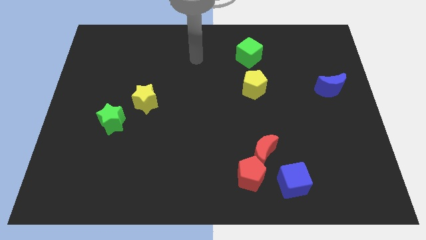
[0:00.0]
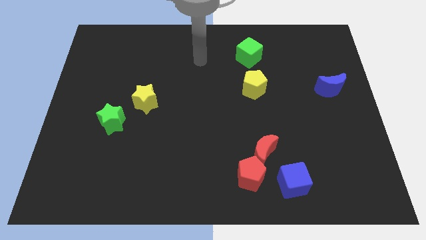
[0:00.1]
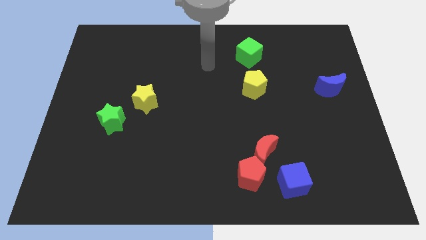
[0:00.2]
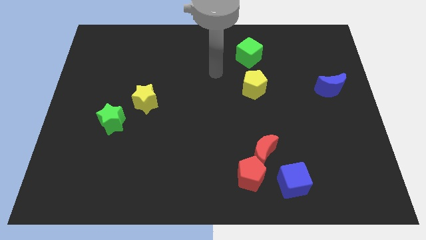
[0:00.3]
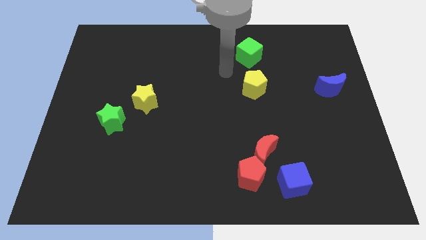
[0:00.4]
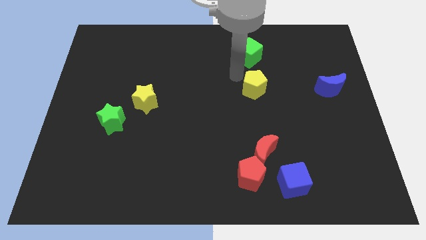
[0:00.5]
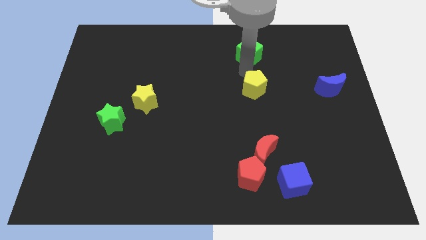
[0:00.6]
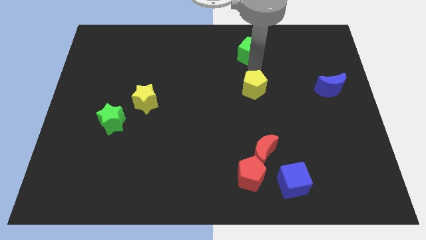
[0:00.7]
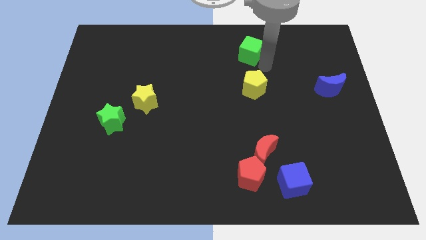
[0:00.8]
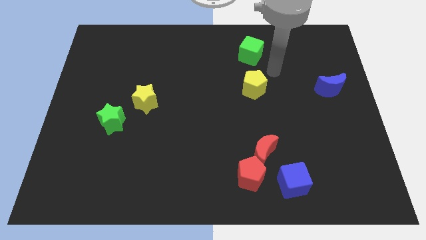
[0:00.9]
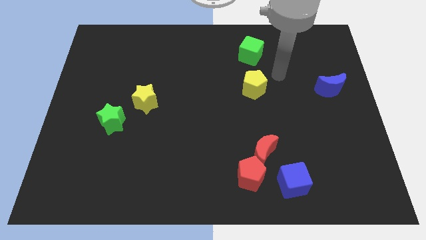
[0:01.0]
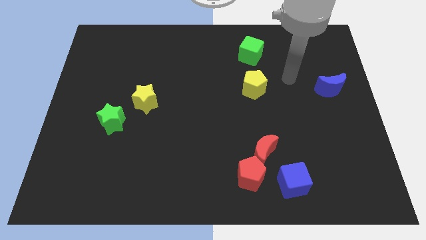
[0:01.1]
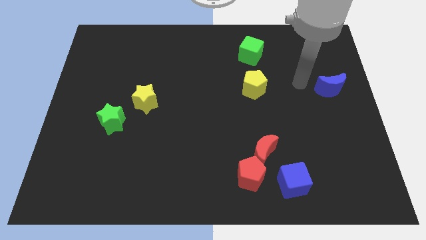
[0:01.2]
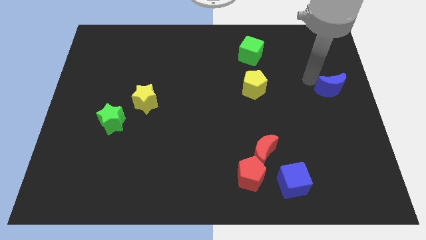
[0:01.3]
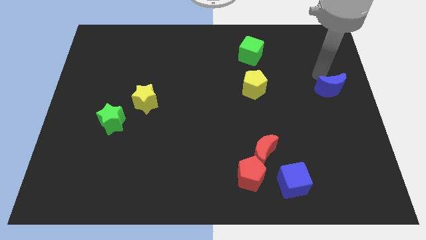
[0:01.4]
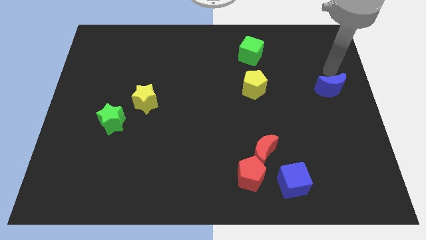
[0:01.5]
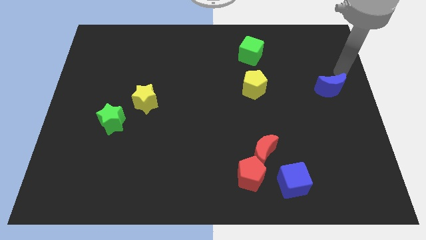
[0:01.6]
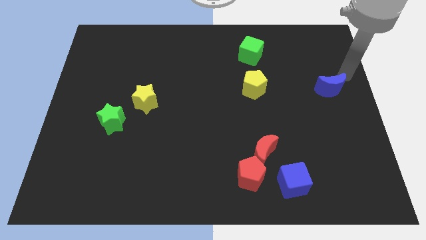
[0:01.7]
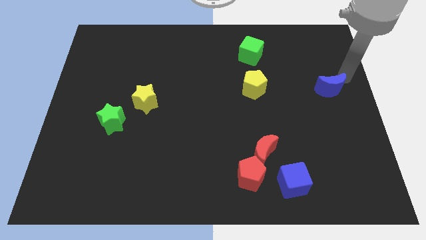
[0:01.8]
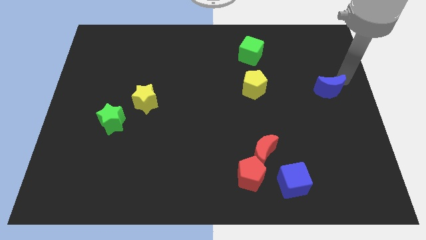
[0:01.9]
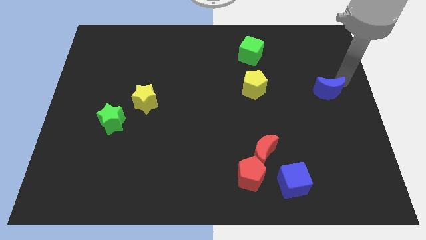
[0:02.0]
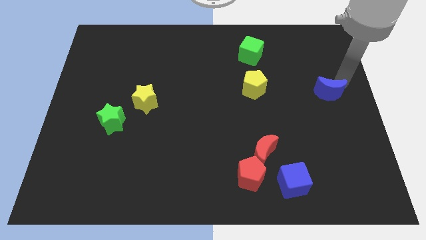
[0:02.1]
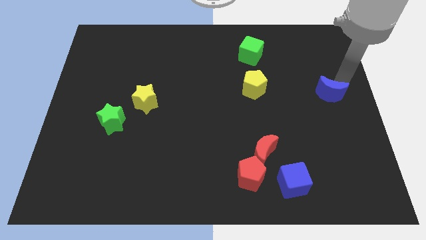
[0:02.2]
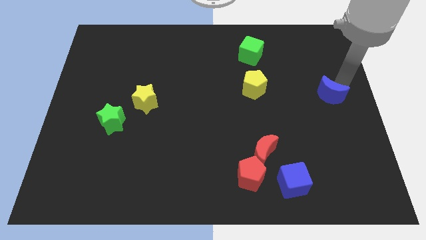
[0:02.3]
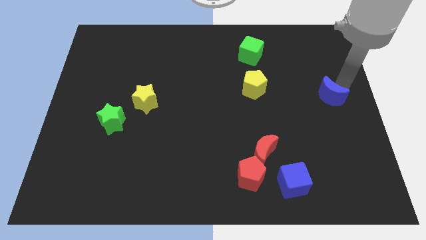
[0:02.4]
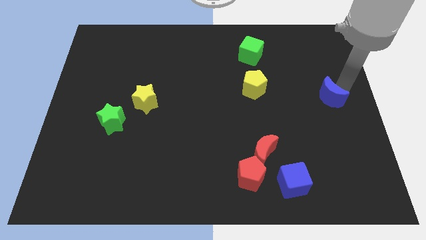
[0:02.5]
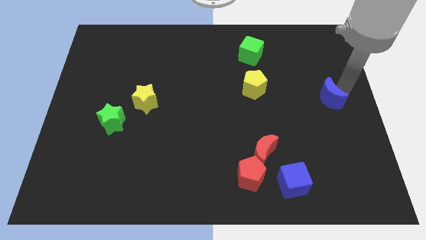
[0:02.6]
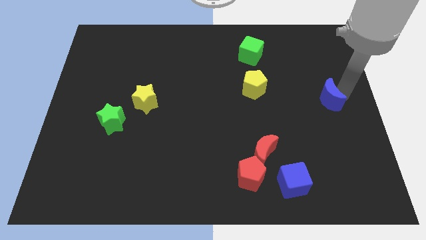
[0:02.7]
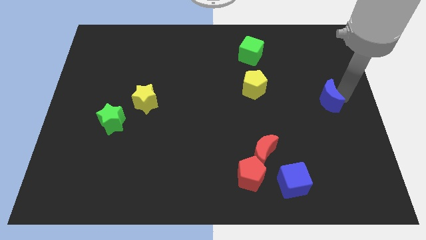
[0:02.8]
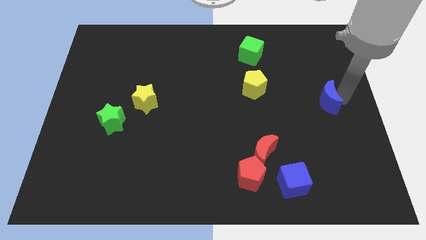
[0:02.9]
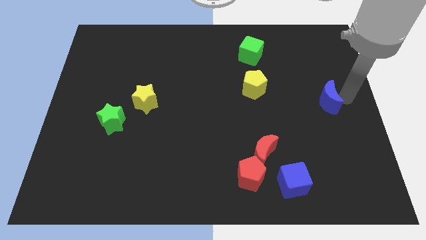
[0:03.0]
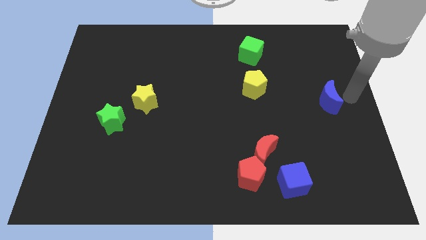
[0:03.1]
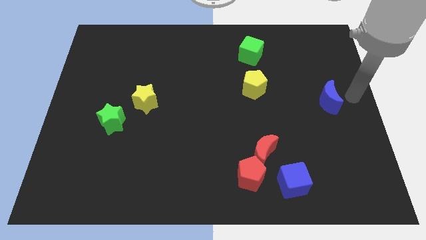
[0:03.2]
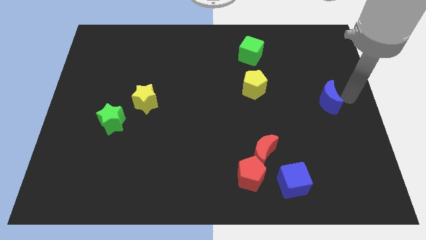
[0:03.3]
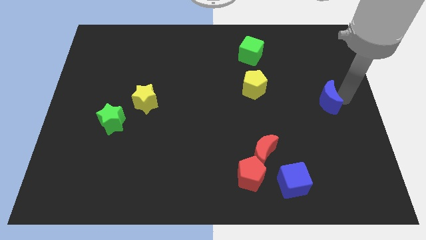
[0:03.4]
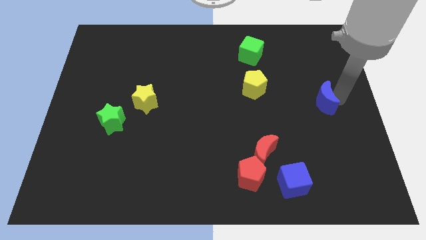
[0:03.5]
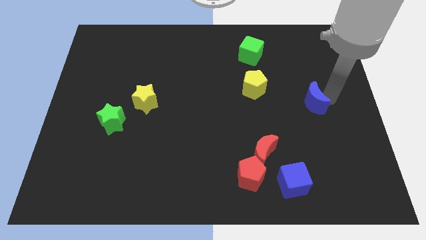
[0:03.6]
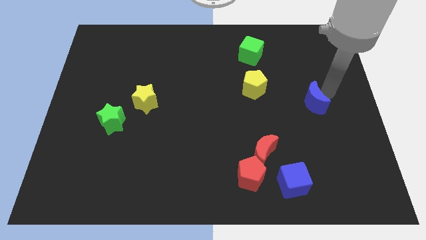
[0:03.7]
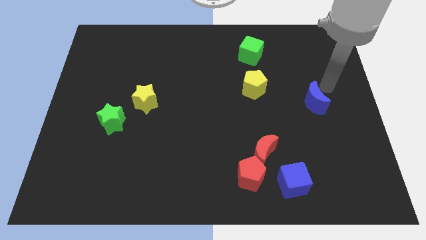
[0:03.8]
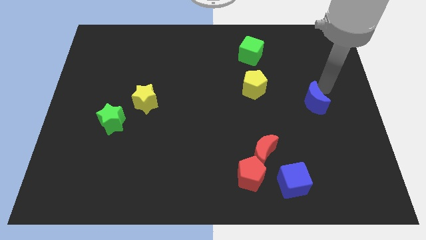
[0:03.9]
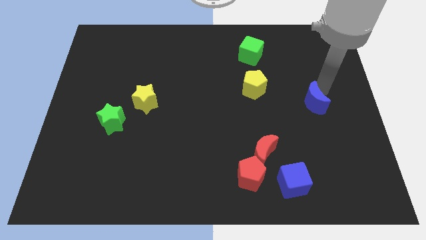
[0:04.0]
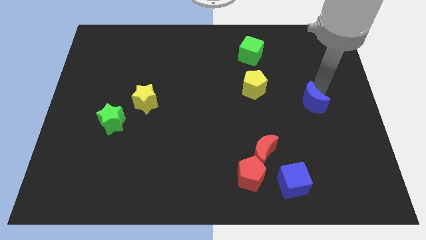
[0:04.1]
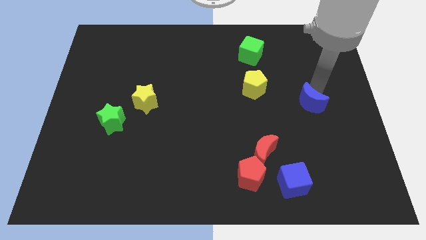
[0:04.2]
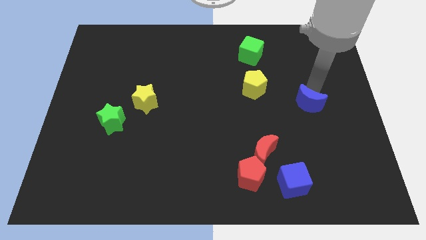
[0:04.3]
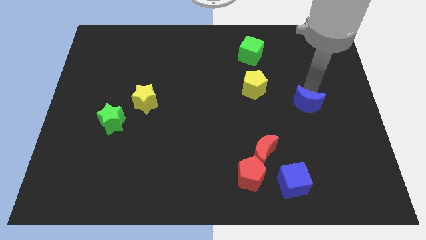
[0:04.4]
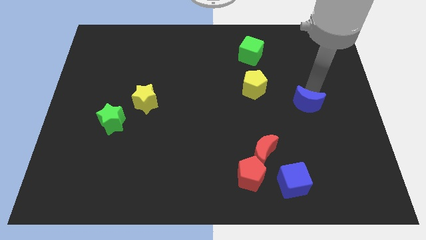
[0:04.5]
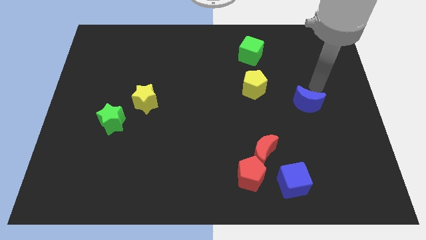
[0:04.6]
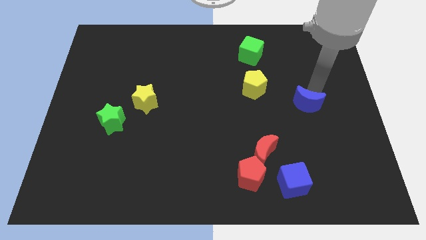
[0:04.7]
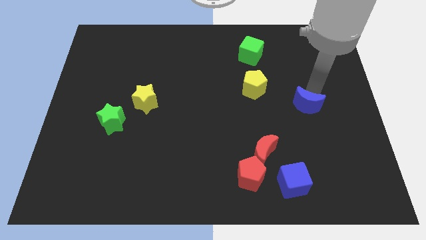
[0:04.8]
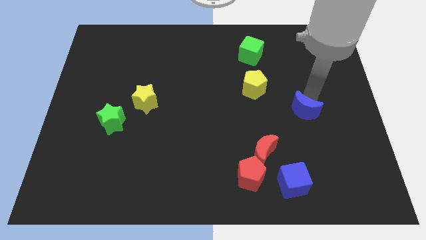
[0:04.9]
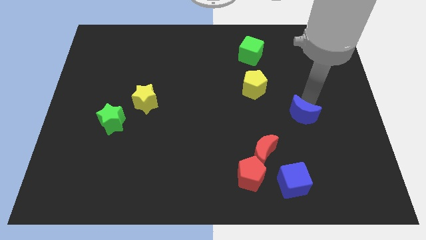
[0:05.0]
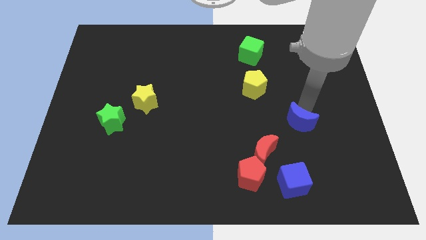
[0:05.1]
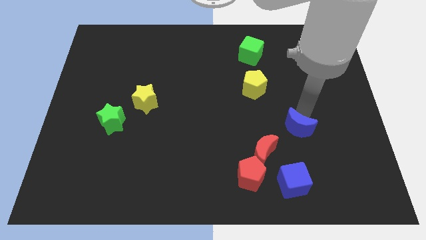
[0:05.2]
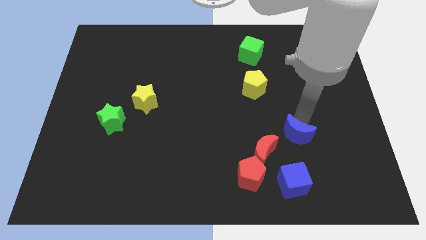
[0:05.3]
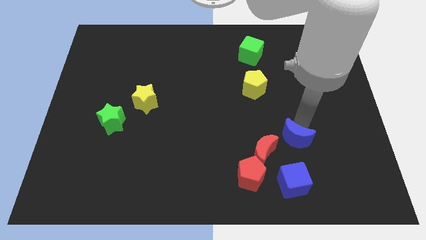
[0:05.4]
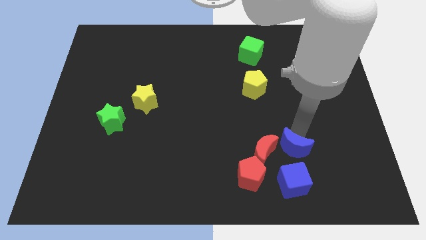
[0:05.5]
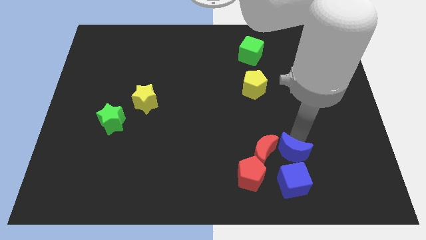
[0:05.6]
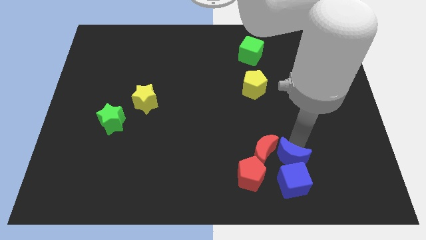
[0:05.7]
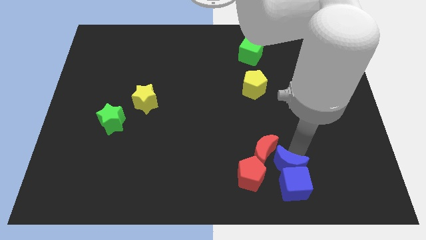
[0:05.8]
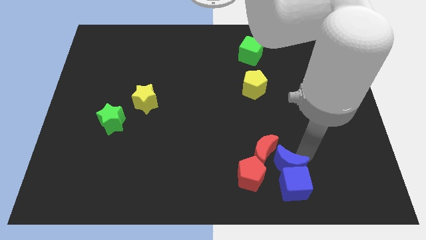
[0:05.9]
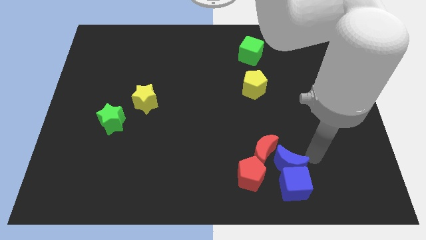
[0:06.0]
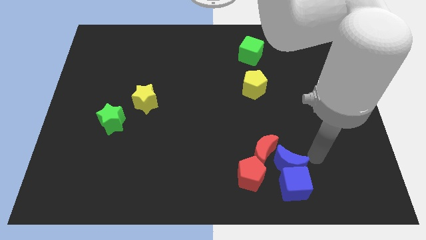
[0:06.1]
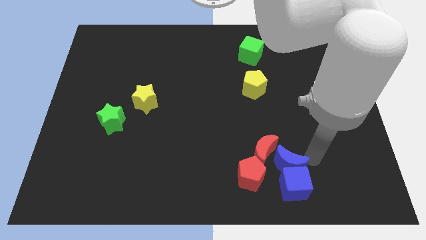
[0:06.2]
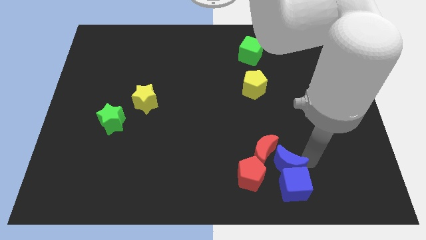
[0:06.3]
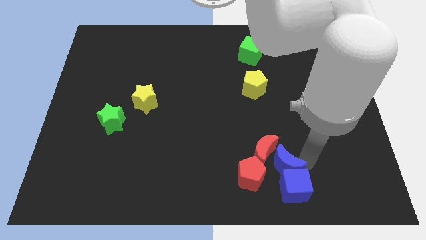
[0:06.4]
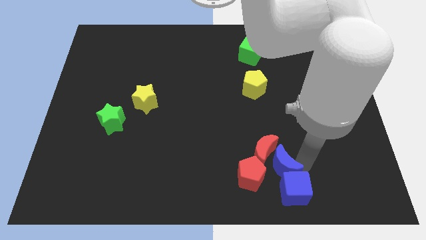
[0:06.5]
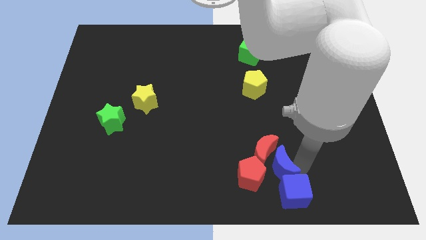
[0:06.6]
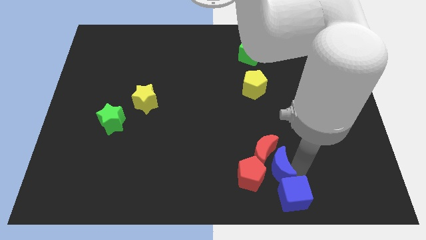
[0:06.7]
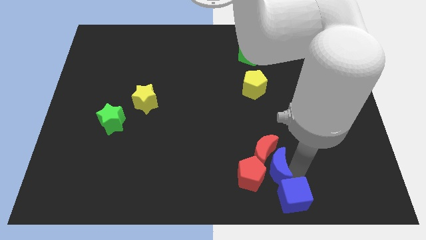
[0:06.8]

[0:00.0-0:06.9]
slide the blue moon to the red pentagon
